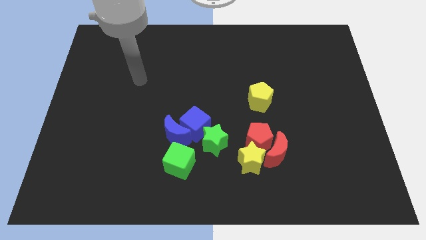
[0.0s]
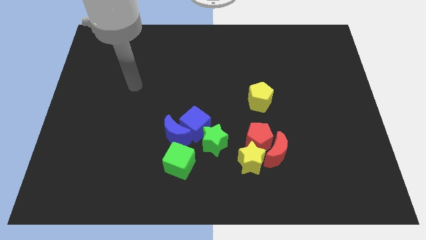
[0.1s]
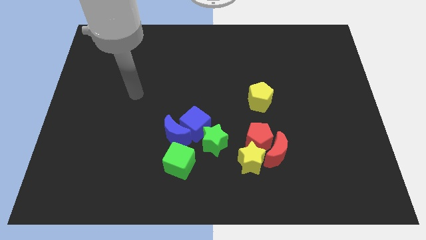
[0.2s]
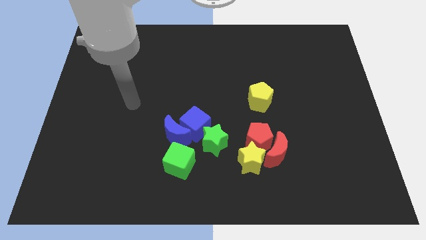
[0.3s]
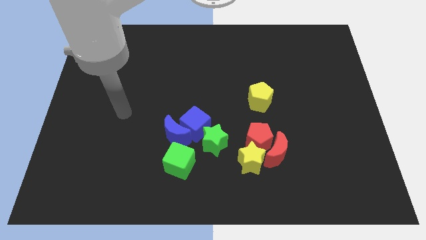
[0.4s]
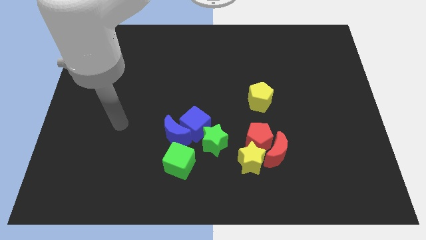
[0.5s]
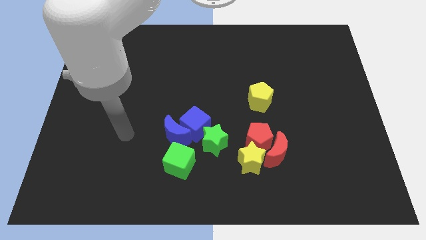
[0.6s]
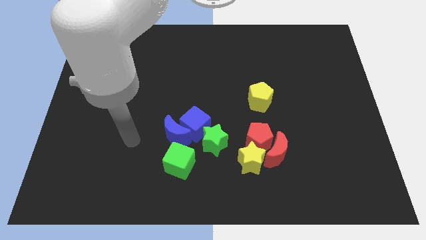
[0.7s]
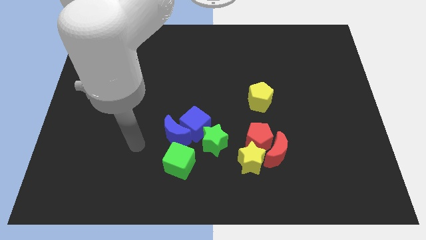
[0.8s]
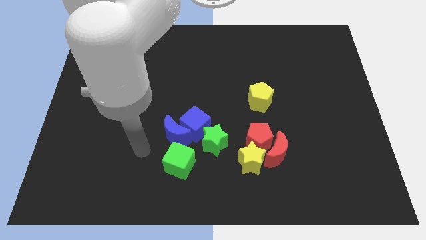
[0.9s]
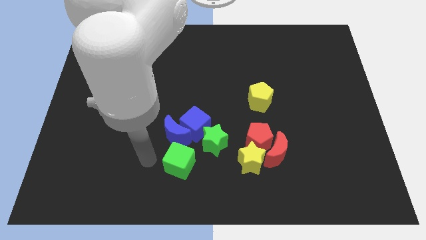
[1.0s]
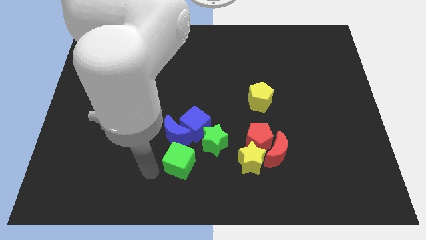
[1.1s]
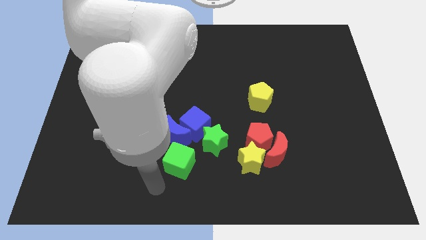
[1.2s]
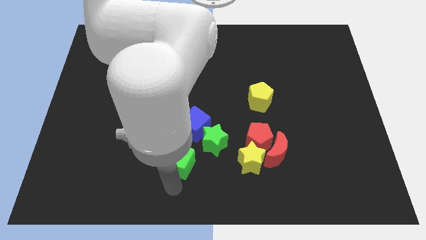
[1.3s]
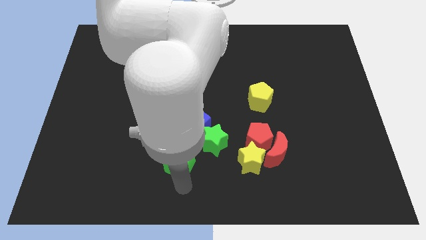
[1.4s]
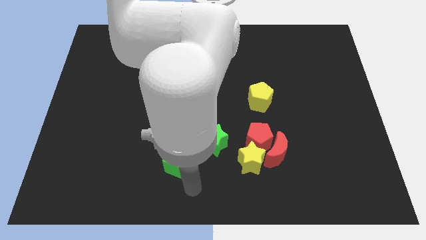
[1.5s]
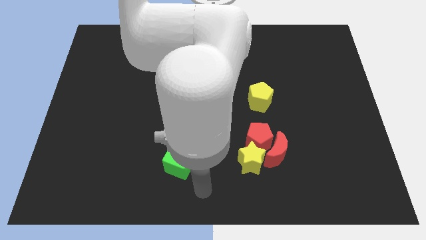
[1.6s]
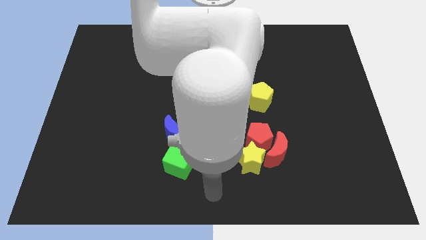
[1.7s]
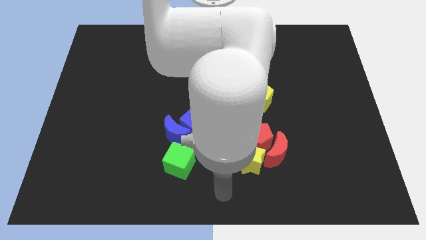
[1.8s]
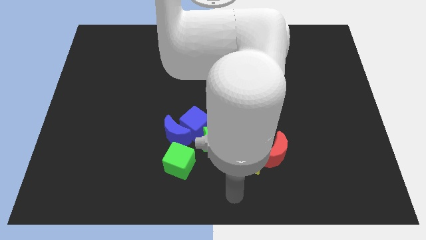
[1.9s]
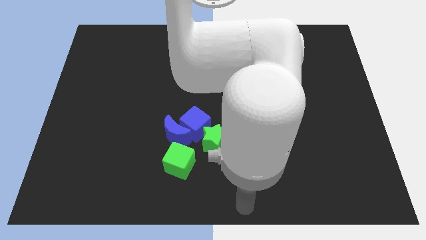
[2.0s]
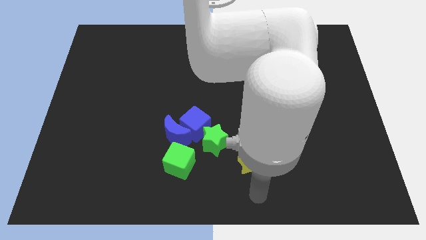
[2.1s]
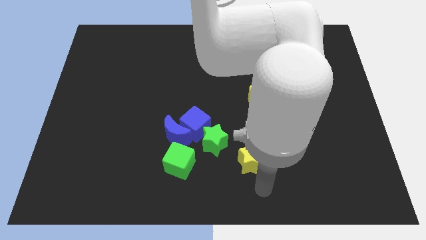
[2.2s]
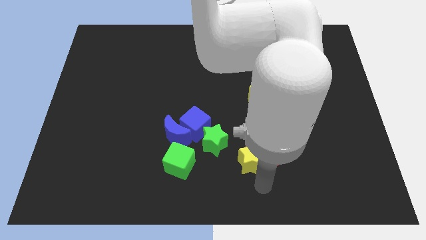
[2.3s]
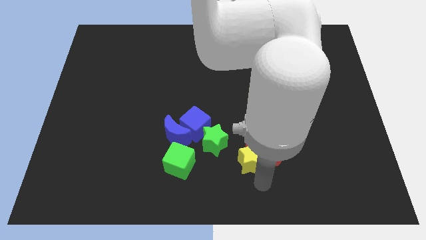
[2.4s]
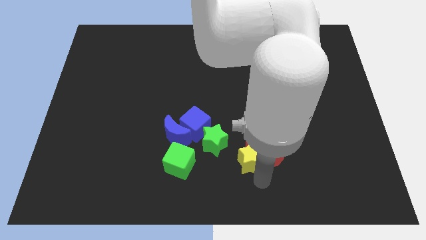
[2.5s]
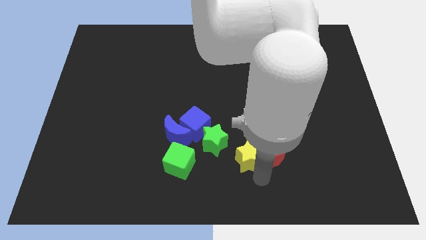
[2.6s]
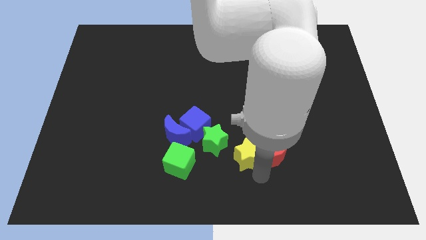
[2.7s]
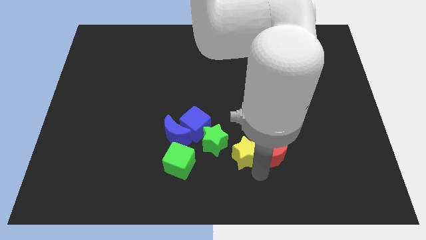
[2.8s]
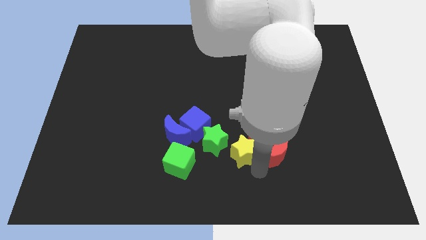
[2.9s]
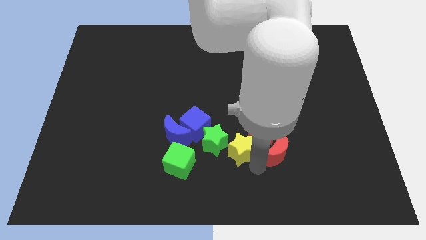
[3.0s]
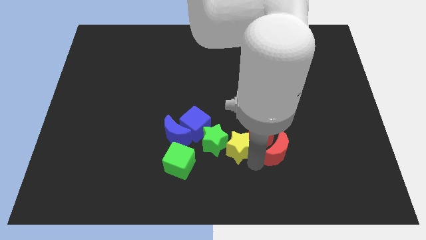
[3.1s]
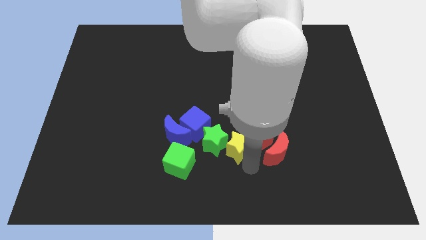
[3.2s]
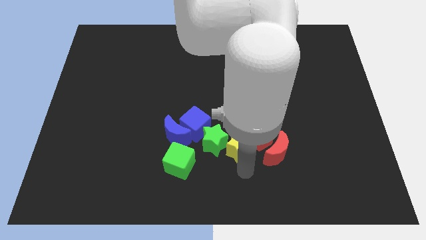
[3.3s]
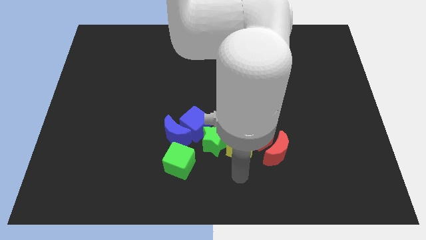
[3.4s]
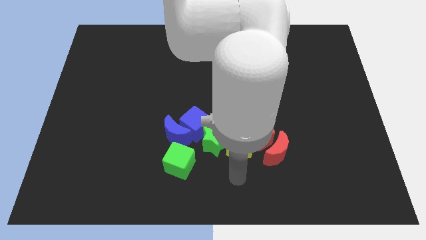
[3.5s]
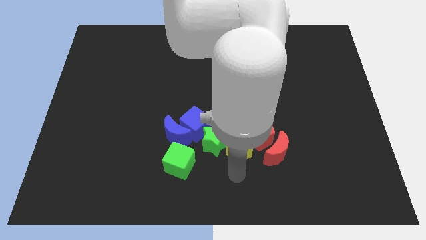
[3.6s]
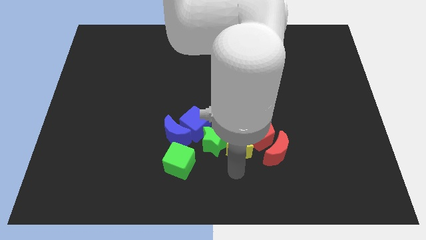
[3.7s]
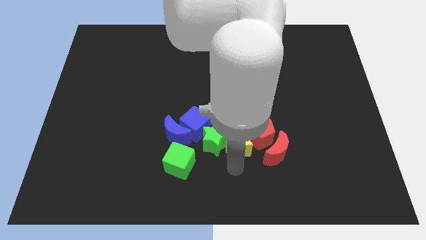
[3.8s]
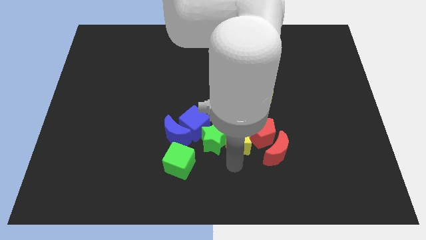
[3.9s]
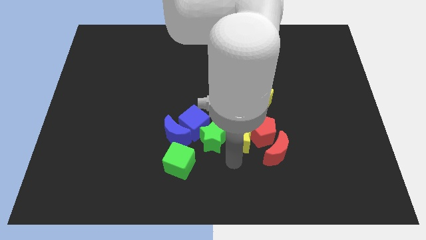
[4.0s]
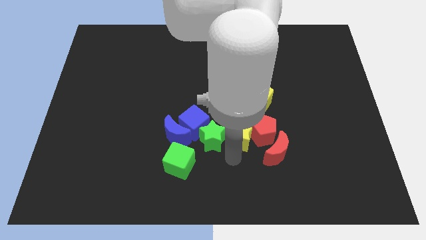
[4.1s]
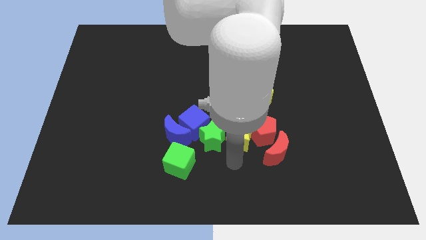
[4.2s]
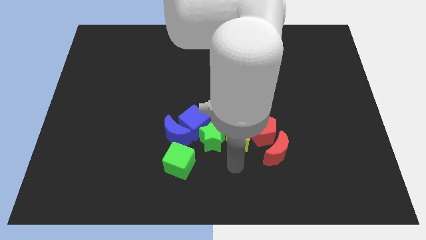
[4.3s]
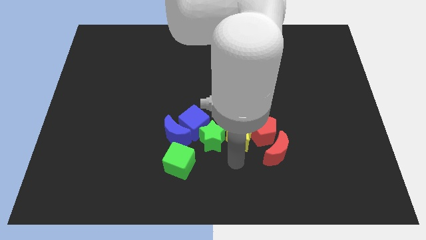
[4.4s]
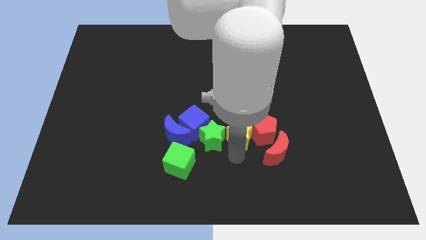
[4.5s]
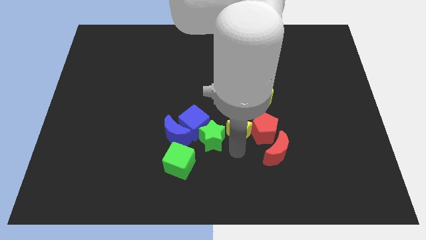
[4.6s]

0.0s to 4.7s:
push the yellow star a little upwards

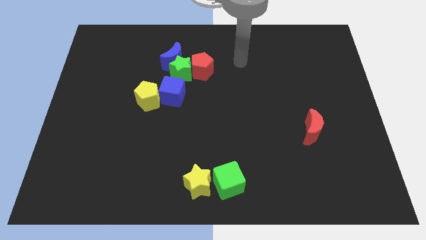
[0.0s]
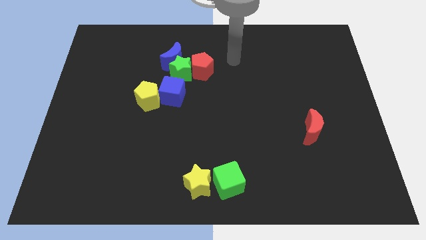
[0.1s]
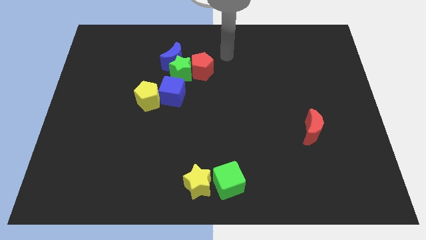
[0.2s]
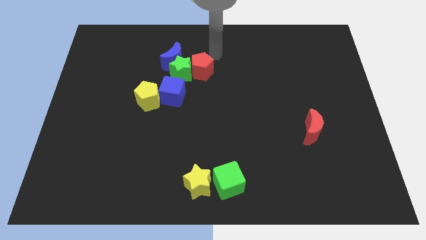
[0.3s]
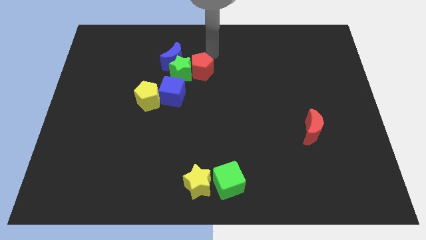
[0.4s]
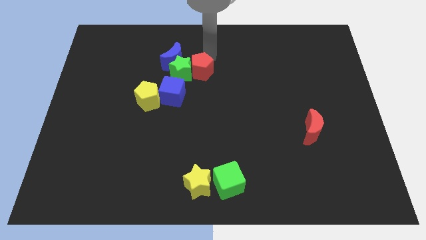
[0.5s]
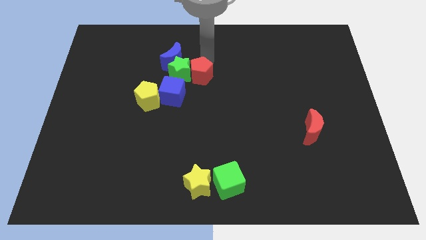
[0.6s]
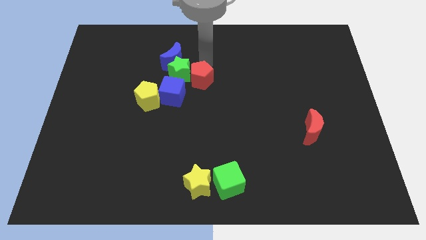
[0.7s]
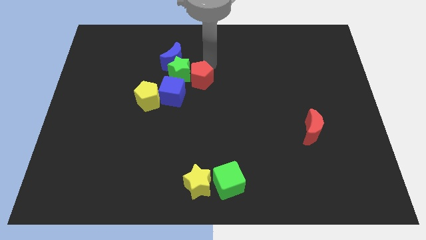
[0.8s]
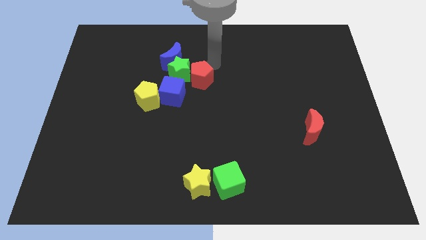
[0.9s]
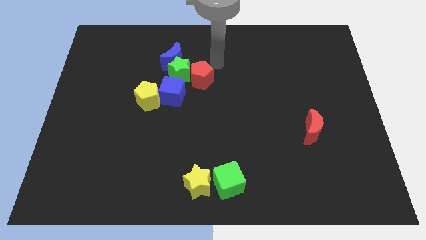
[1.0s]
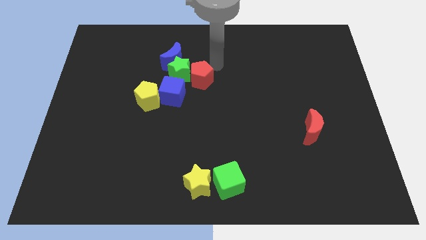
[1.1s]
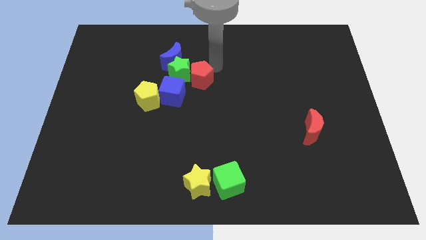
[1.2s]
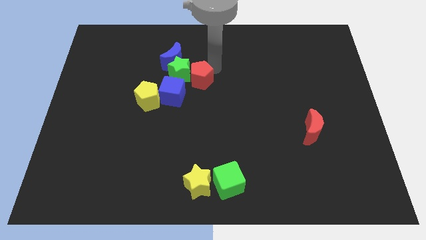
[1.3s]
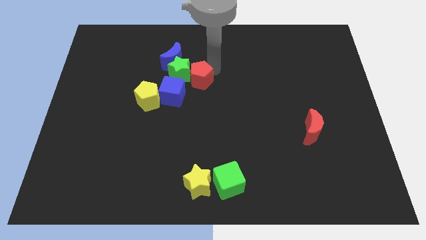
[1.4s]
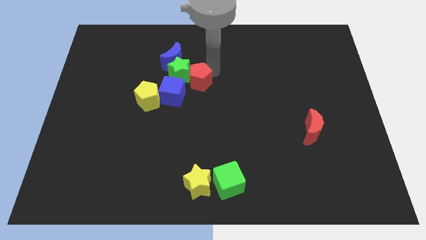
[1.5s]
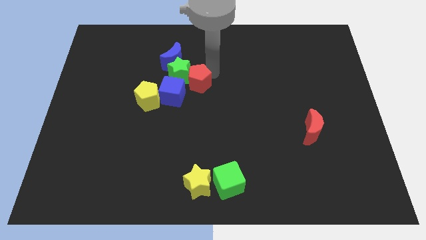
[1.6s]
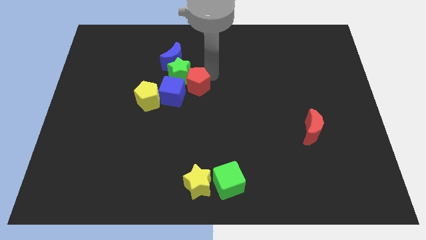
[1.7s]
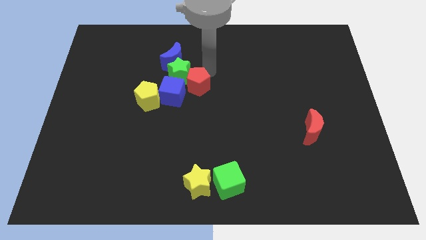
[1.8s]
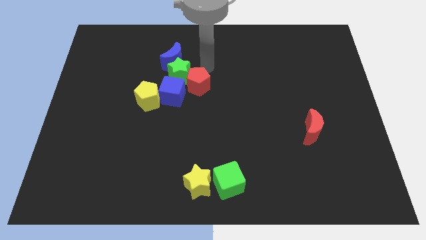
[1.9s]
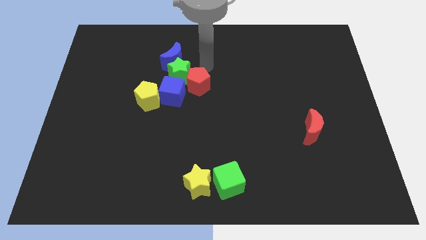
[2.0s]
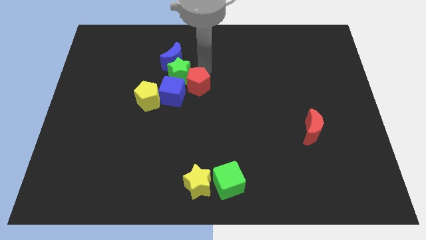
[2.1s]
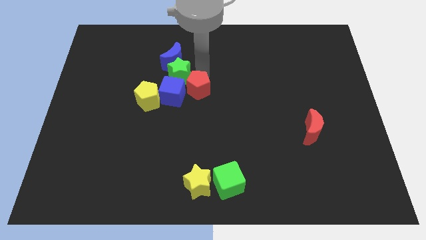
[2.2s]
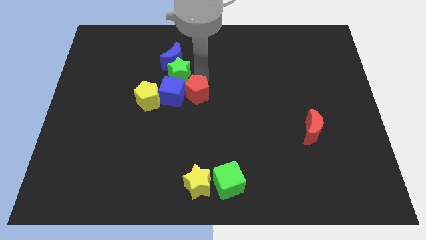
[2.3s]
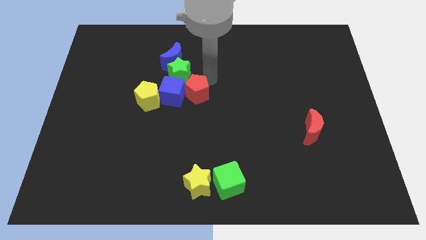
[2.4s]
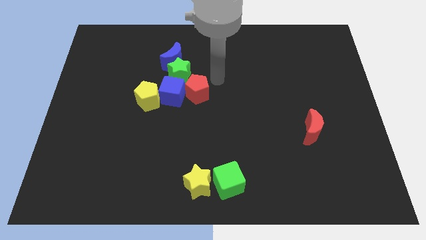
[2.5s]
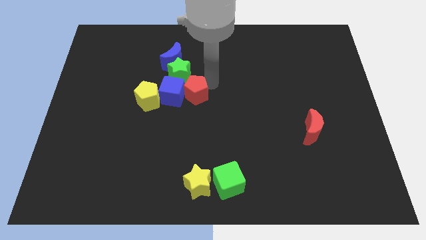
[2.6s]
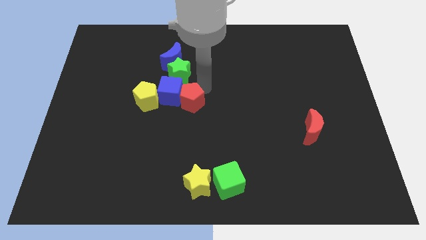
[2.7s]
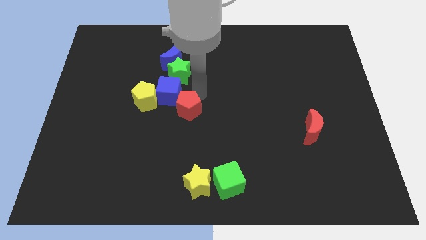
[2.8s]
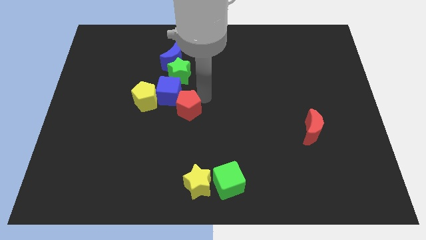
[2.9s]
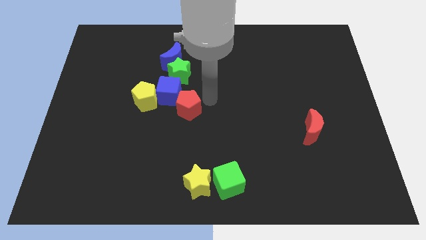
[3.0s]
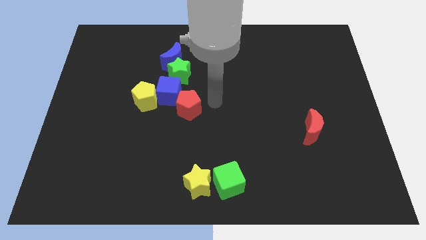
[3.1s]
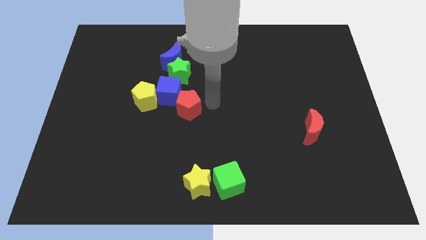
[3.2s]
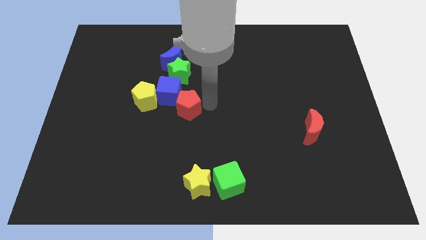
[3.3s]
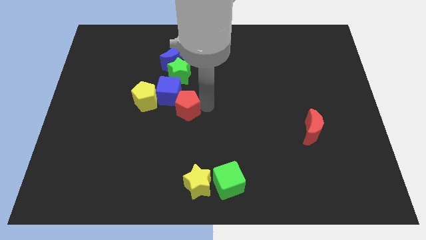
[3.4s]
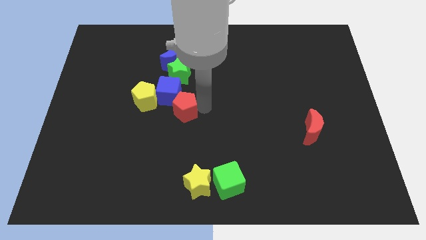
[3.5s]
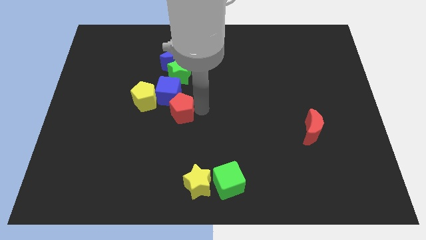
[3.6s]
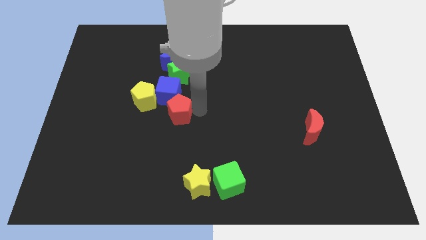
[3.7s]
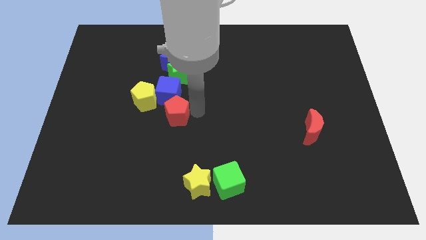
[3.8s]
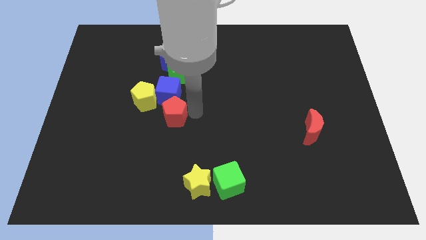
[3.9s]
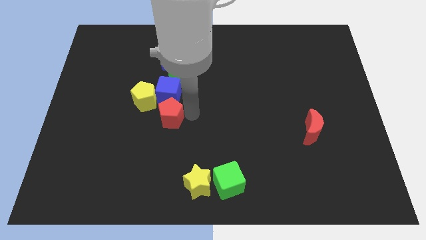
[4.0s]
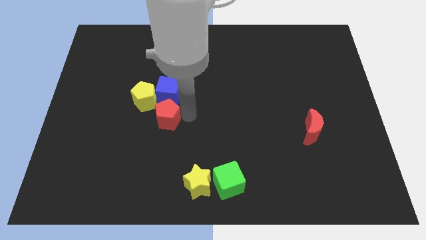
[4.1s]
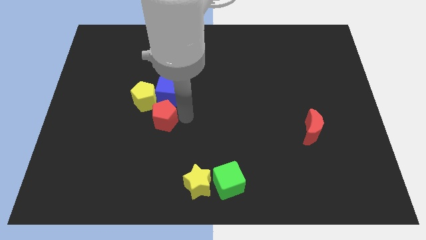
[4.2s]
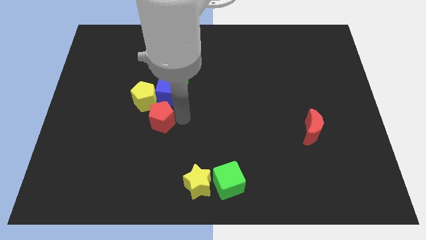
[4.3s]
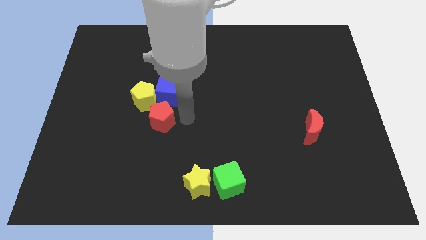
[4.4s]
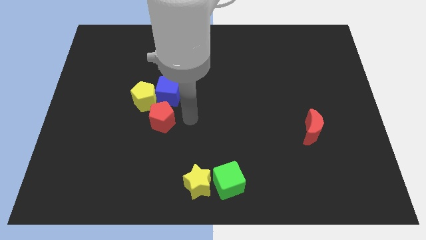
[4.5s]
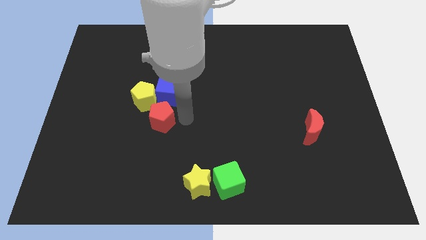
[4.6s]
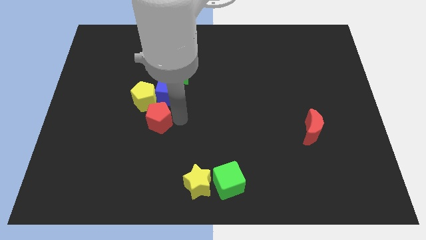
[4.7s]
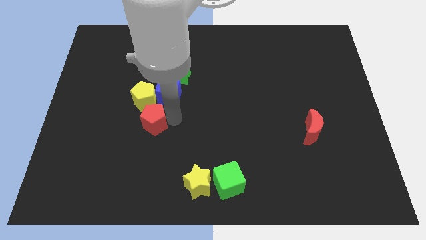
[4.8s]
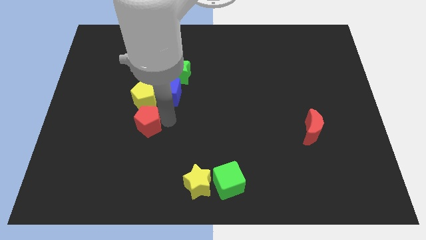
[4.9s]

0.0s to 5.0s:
move the red pentagon down and to the left diagonally
